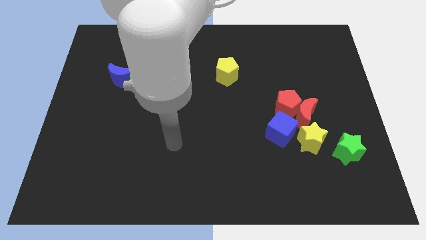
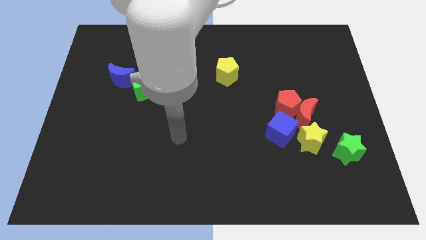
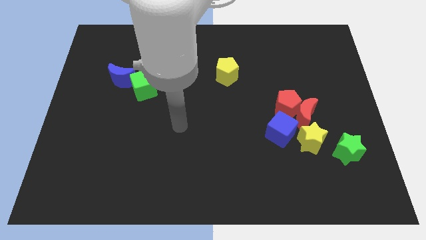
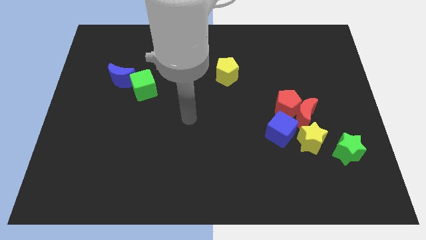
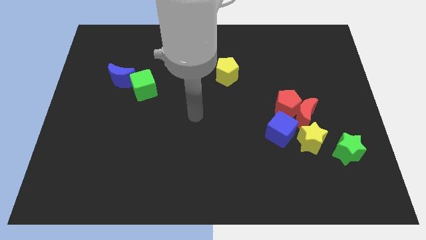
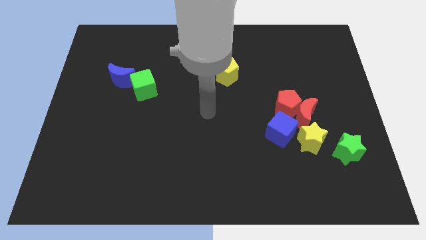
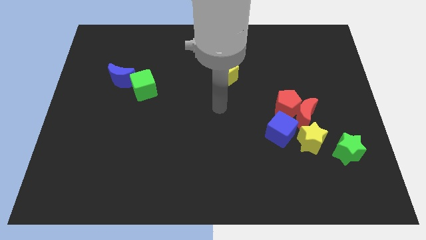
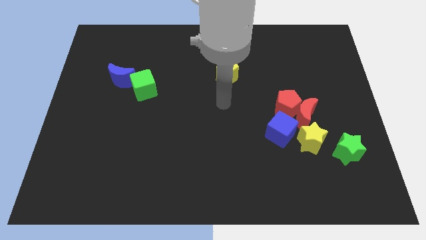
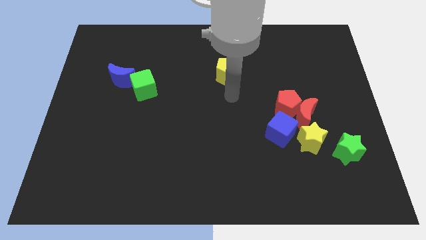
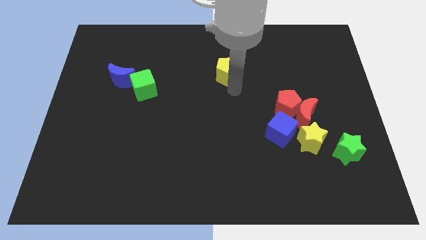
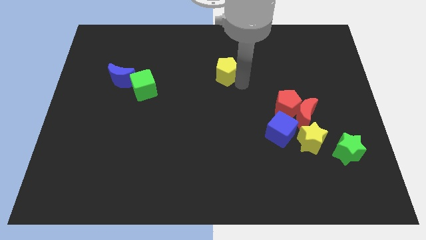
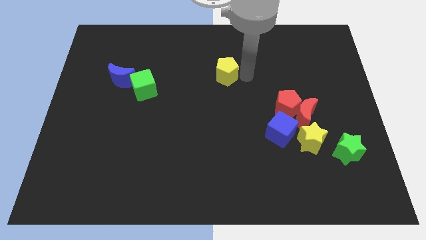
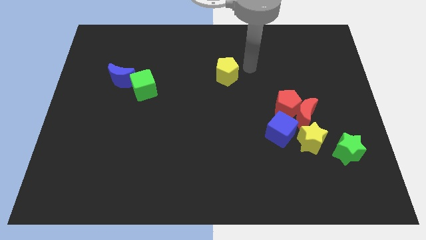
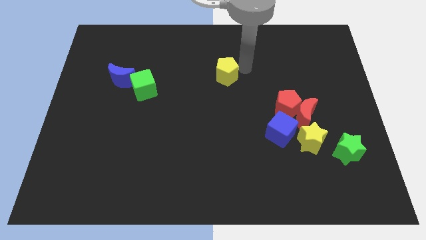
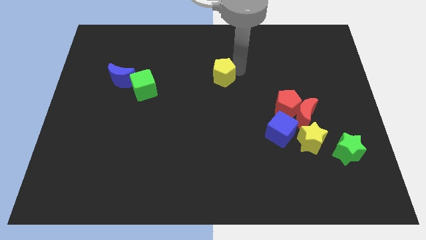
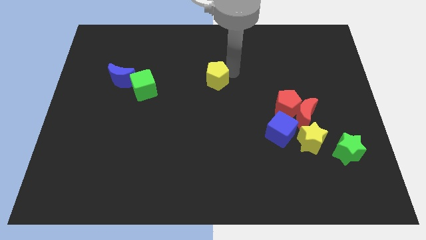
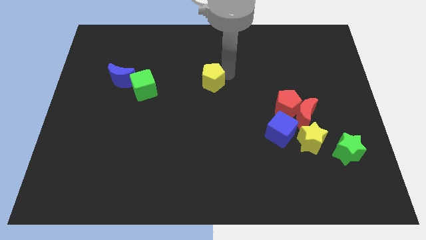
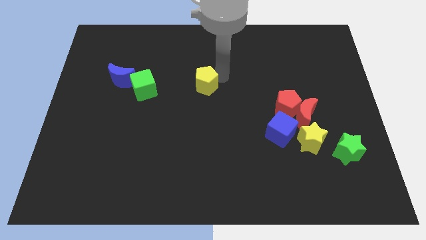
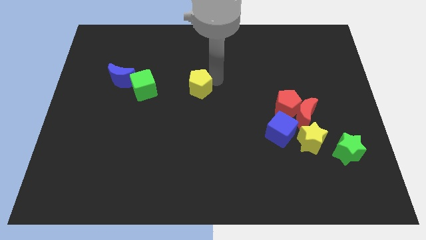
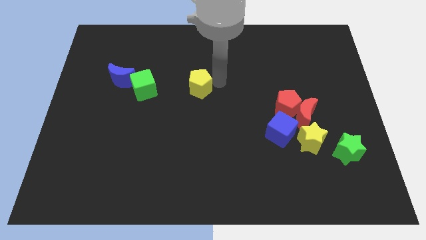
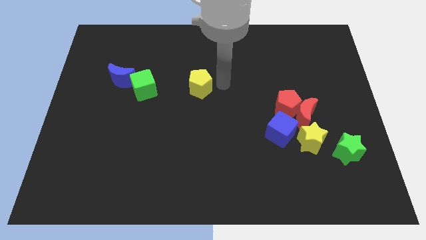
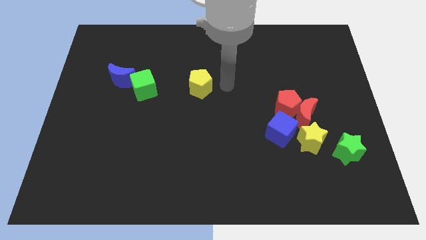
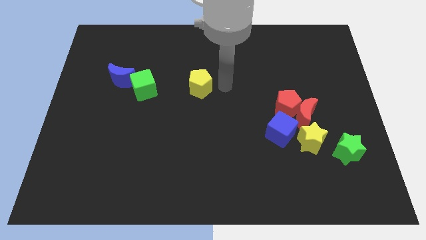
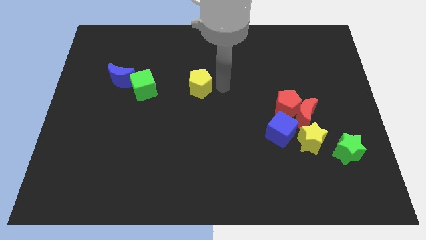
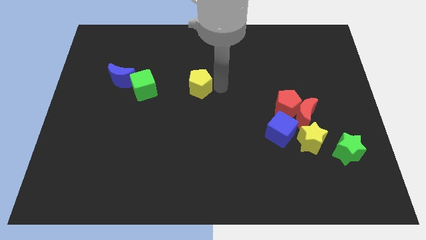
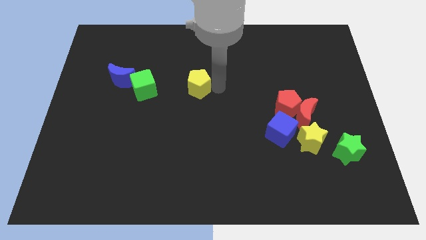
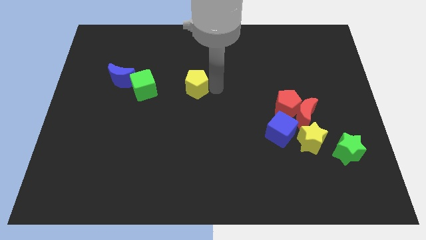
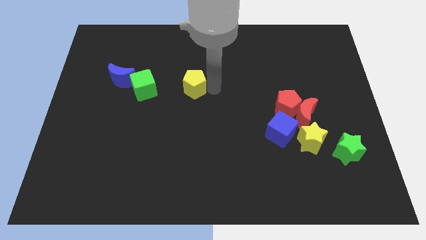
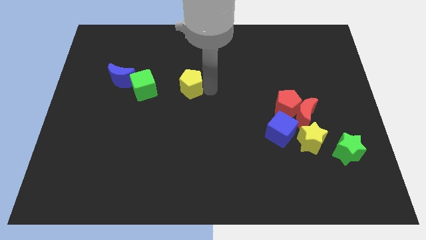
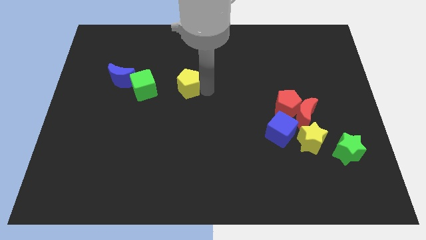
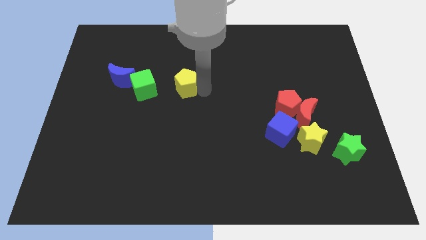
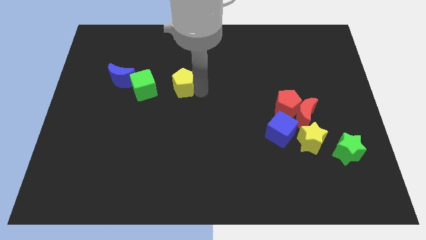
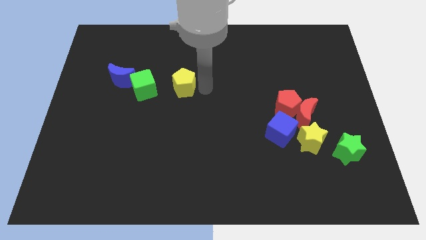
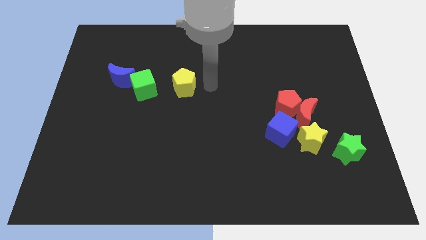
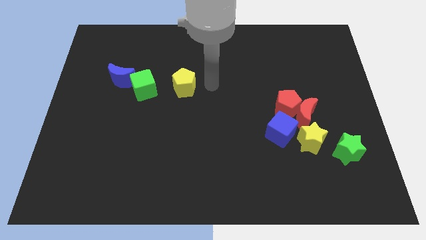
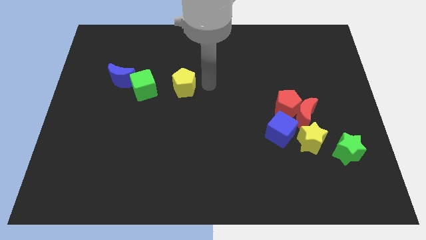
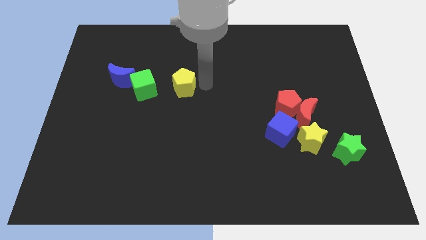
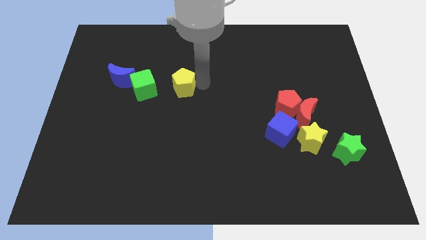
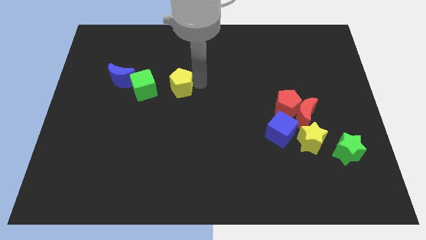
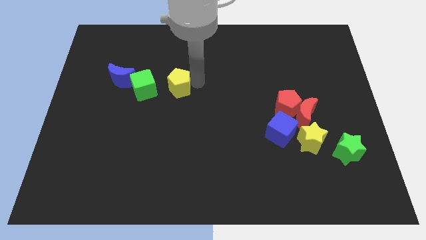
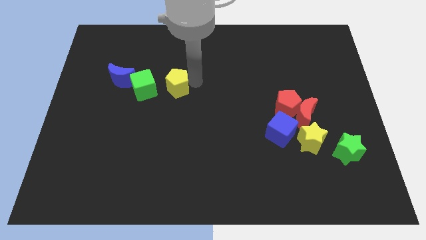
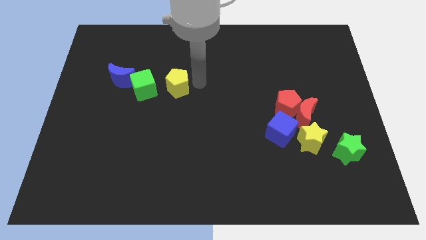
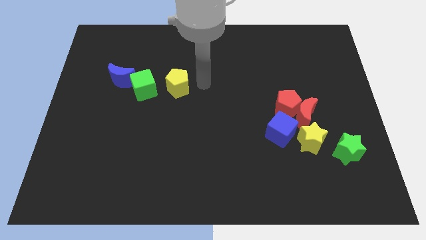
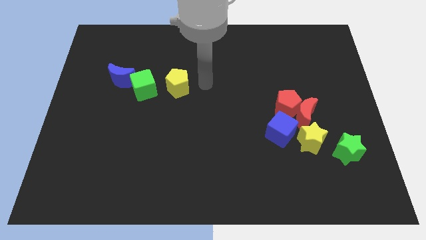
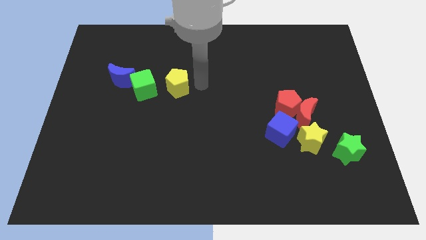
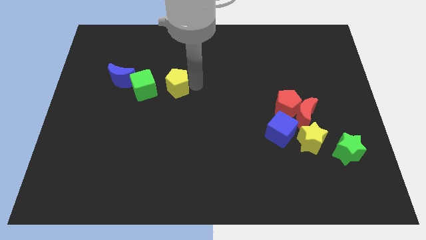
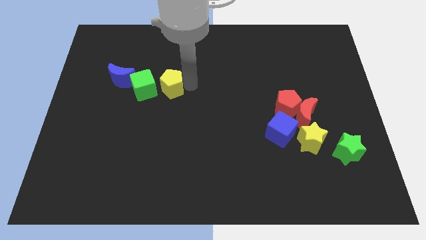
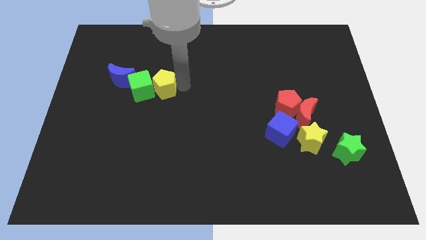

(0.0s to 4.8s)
slide the yellow pentagon to the green cube

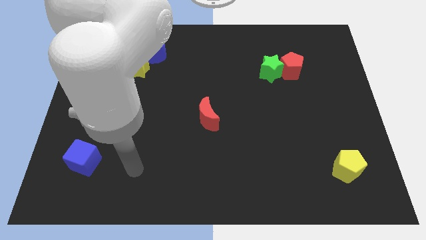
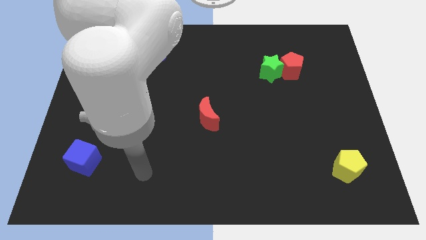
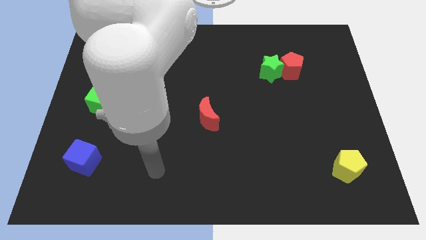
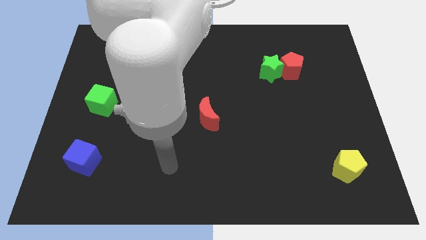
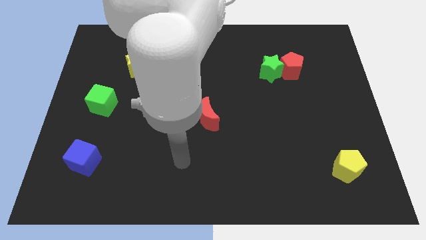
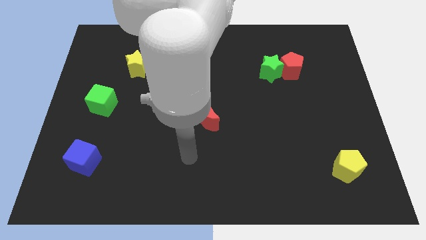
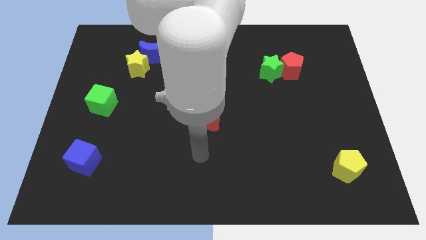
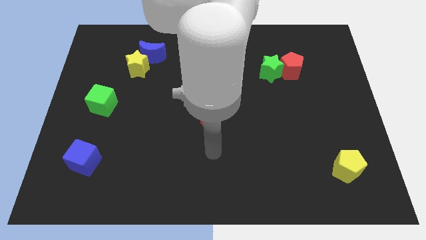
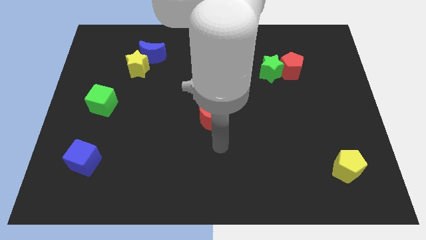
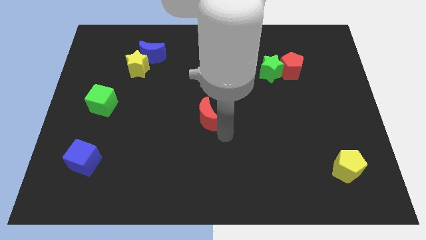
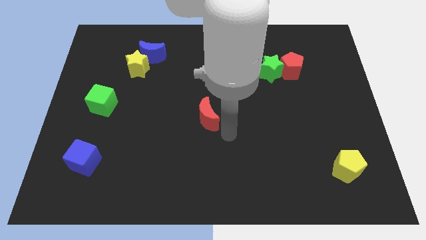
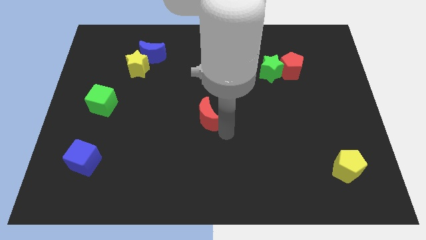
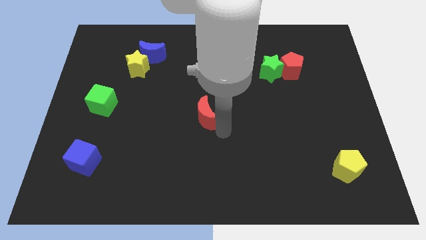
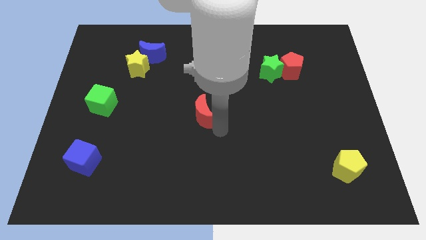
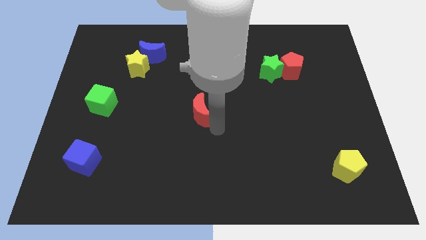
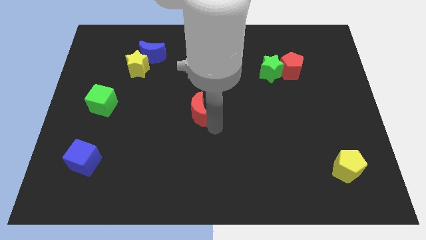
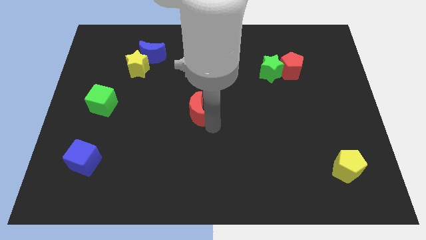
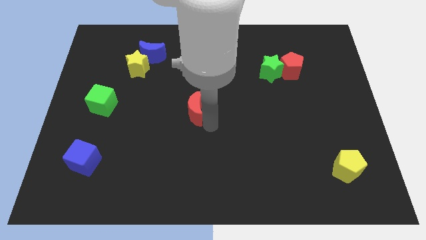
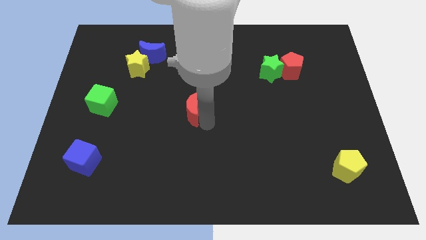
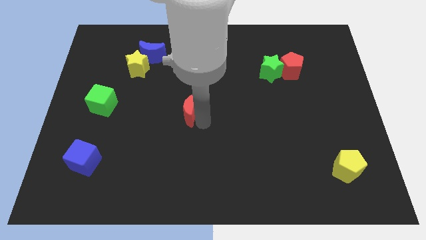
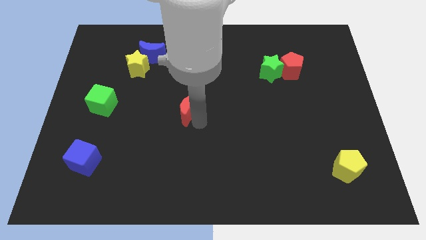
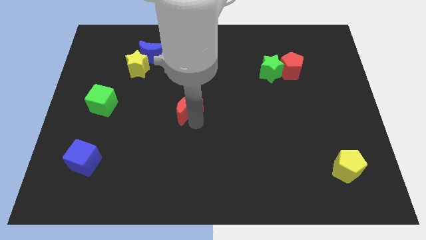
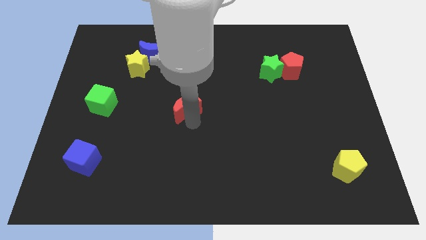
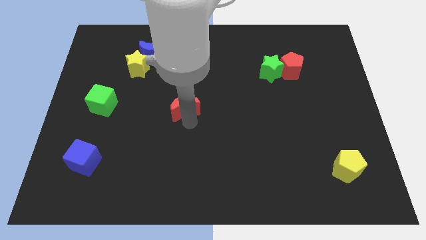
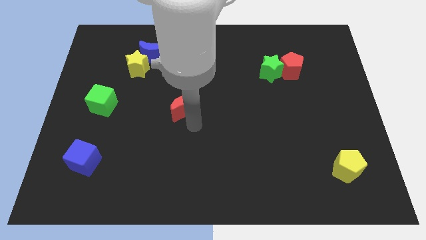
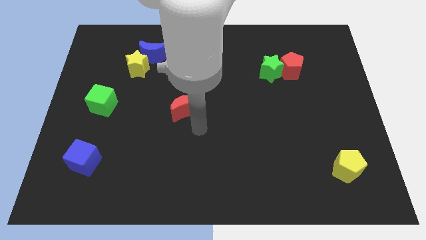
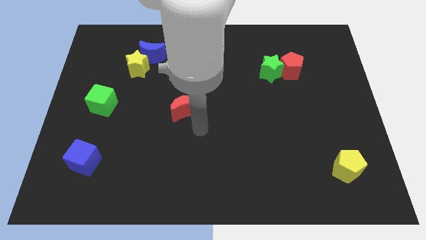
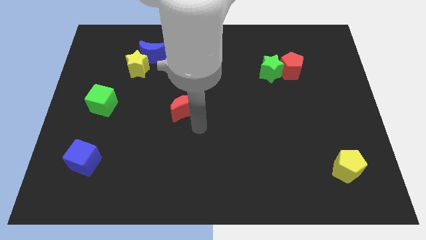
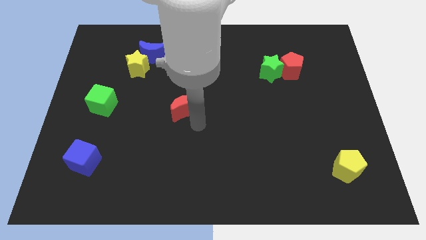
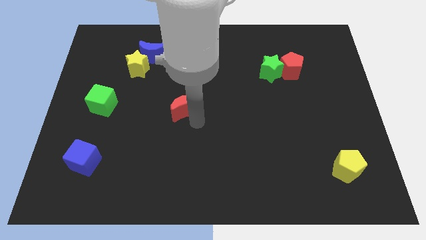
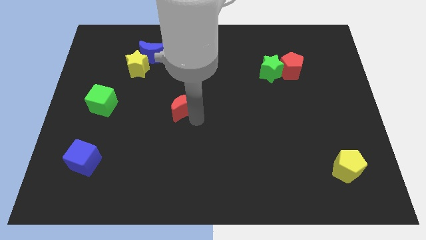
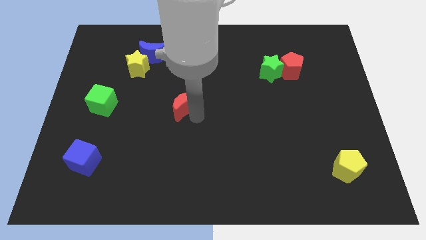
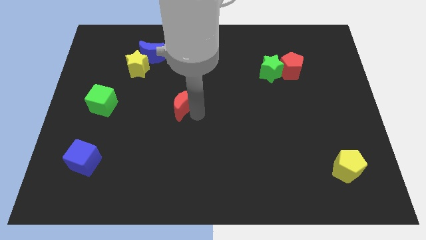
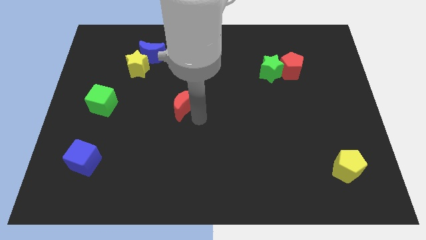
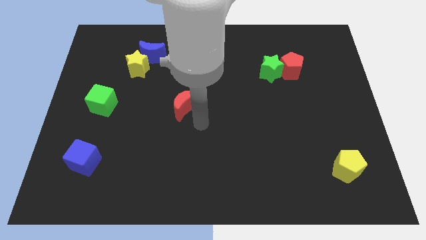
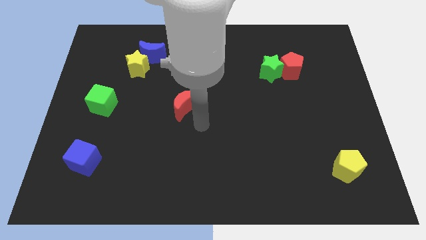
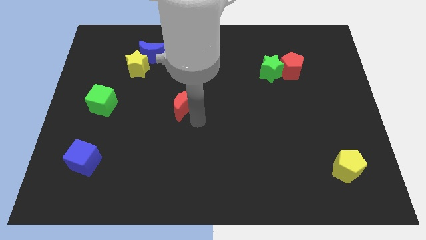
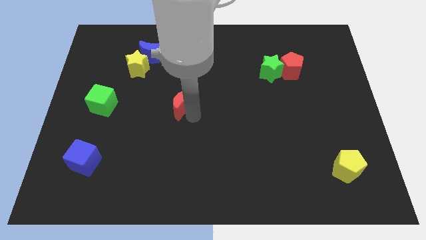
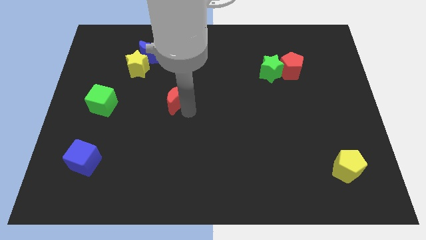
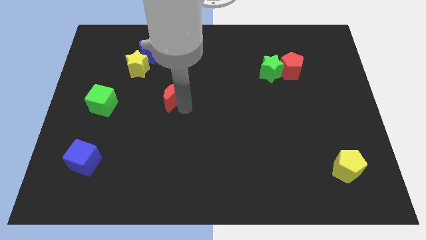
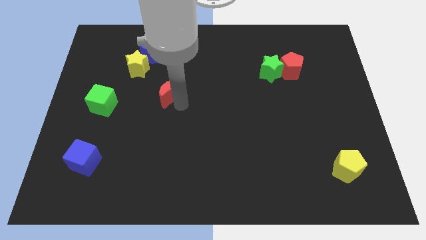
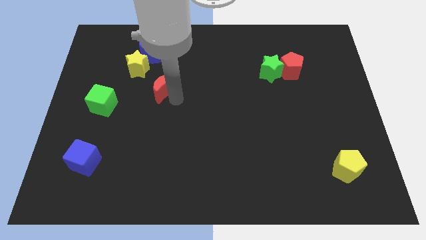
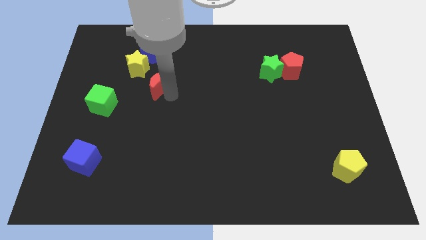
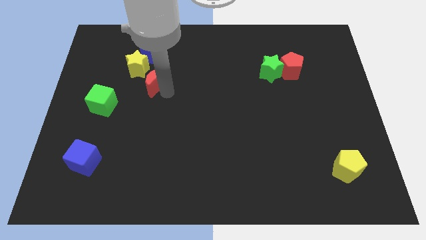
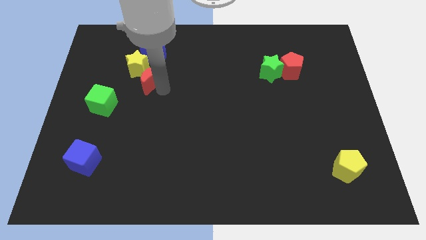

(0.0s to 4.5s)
put the red moon close to the yellow star
